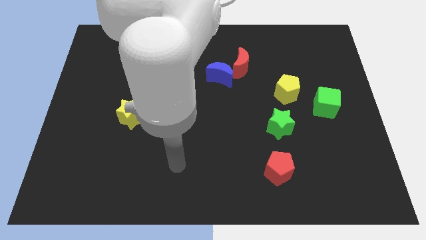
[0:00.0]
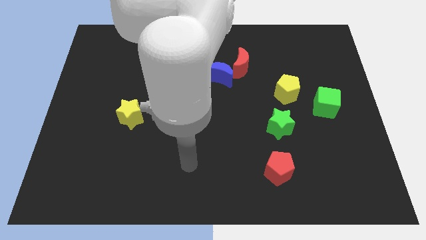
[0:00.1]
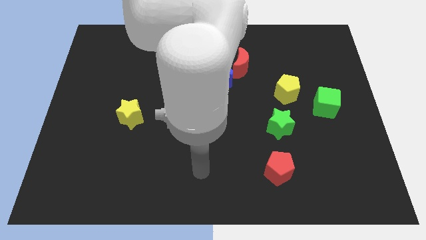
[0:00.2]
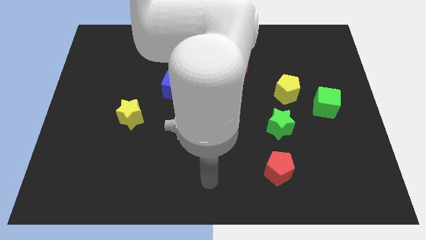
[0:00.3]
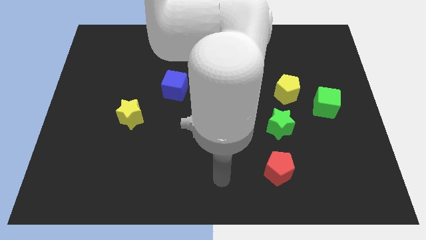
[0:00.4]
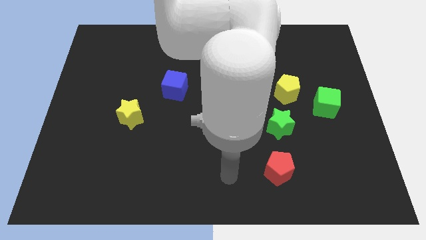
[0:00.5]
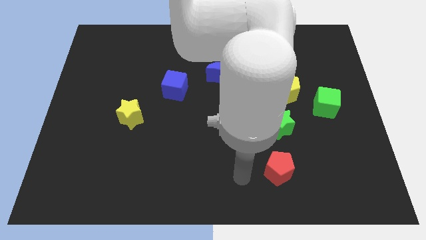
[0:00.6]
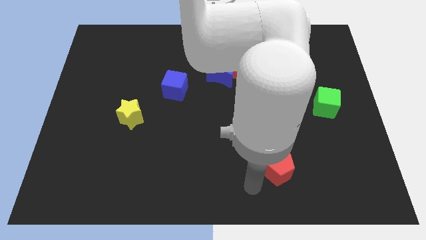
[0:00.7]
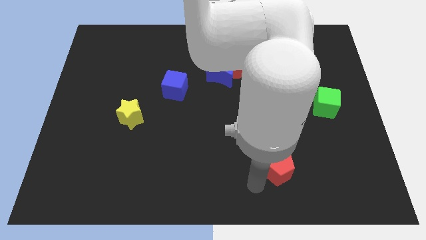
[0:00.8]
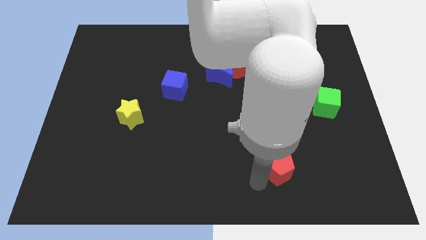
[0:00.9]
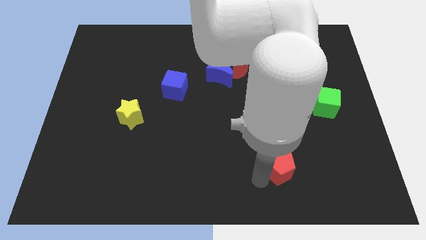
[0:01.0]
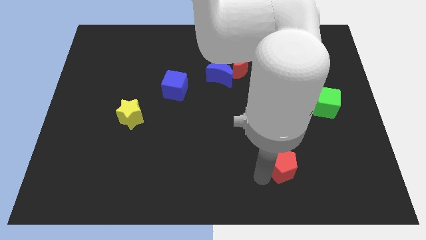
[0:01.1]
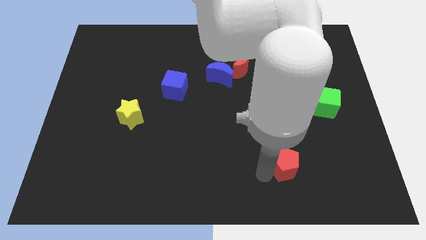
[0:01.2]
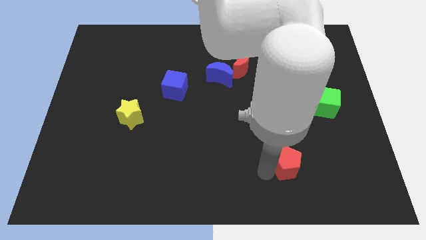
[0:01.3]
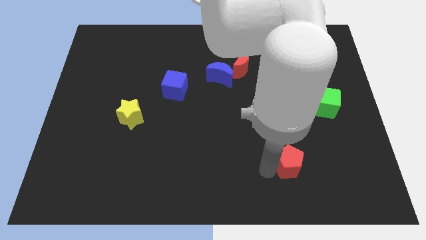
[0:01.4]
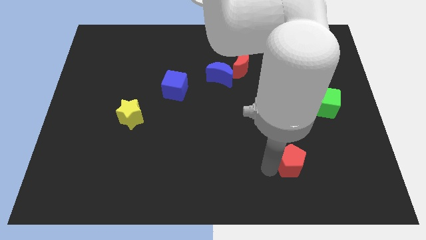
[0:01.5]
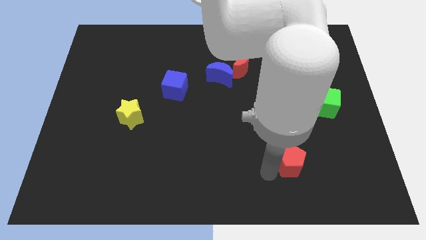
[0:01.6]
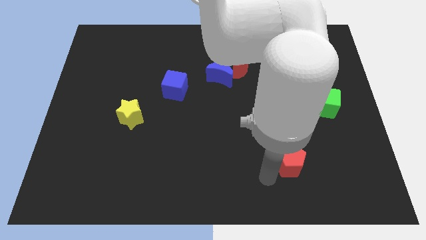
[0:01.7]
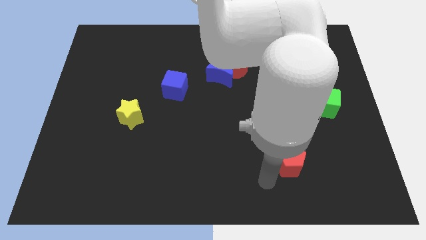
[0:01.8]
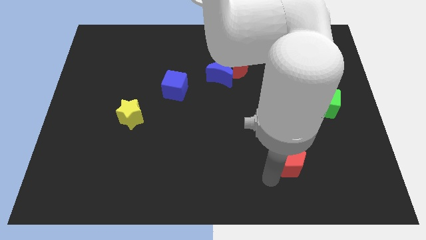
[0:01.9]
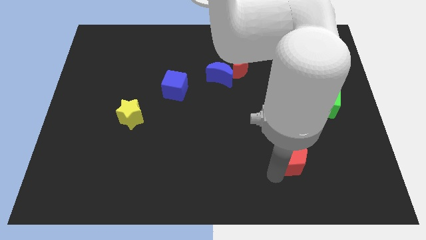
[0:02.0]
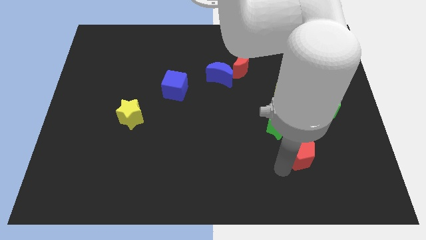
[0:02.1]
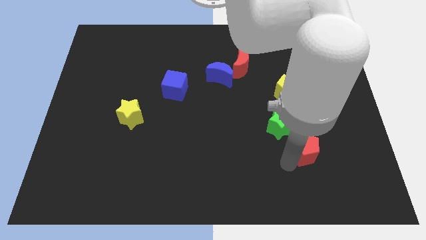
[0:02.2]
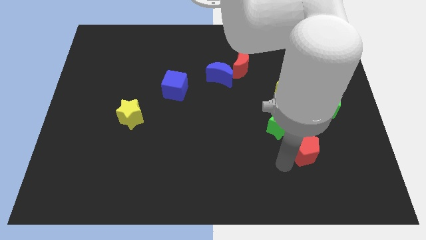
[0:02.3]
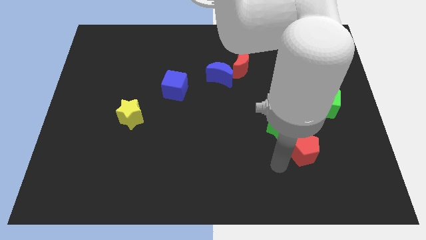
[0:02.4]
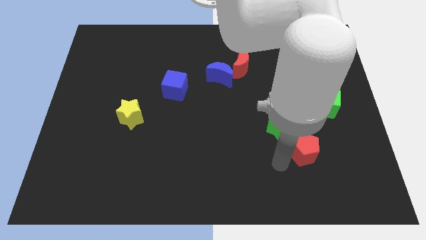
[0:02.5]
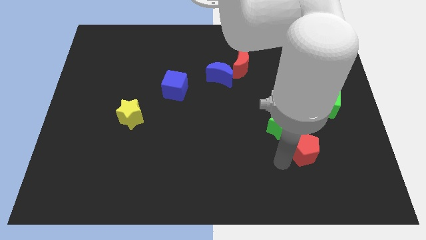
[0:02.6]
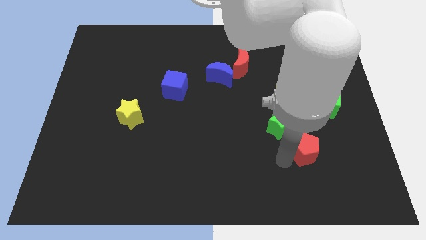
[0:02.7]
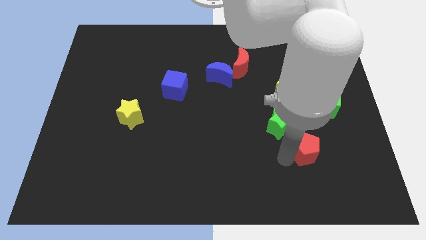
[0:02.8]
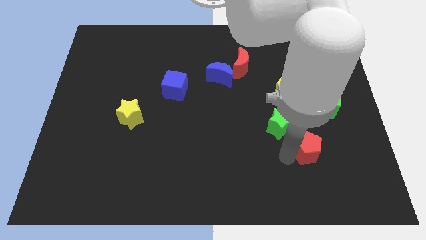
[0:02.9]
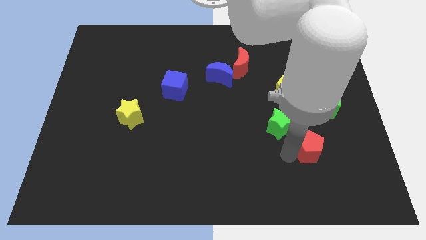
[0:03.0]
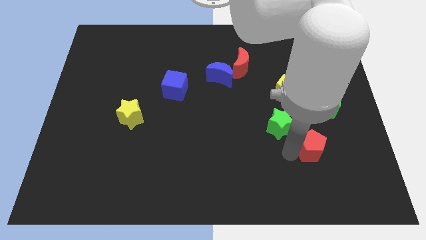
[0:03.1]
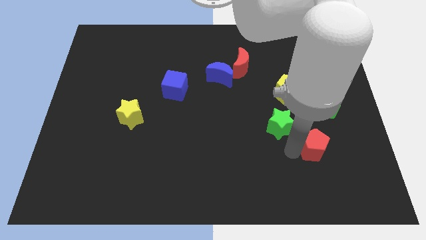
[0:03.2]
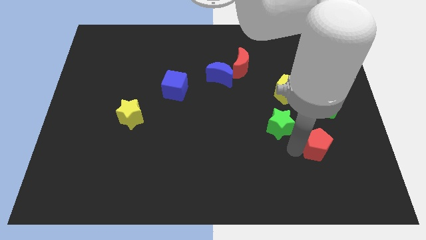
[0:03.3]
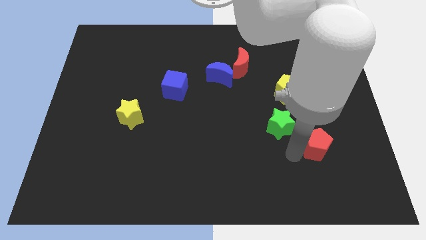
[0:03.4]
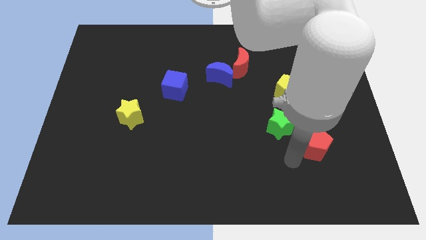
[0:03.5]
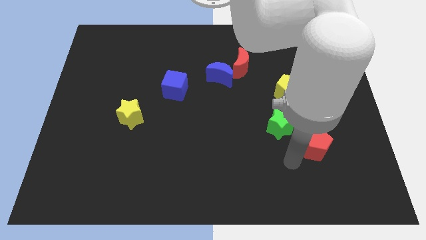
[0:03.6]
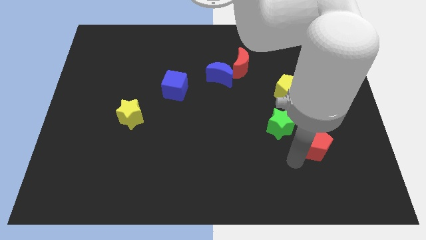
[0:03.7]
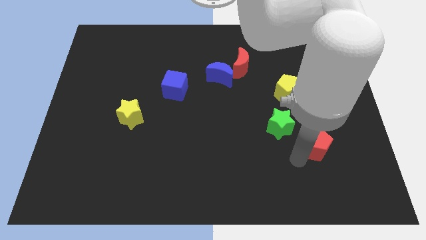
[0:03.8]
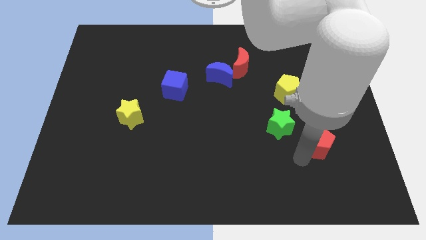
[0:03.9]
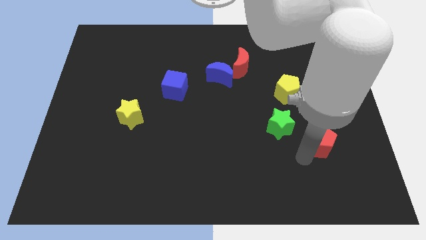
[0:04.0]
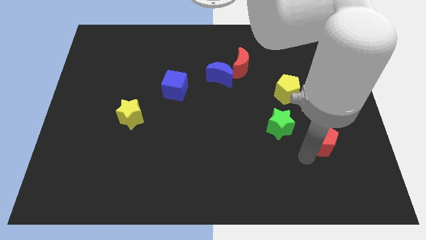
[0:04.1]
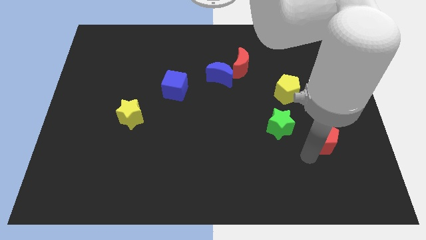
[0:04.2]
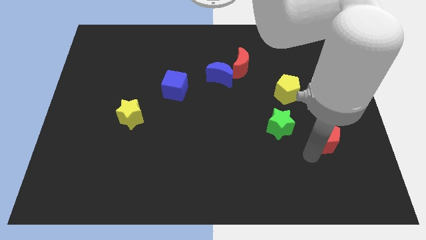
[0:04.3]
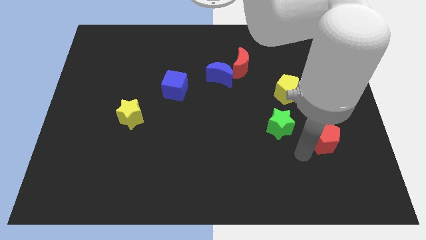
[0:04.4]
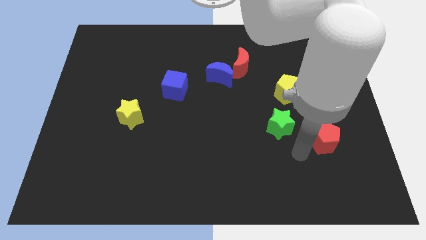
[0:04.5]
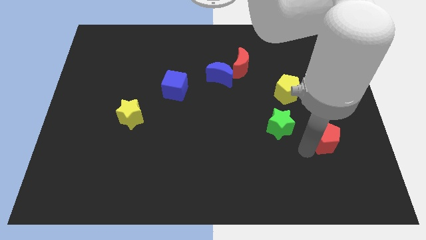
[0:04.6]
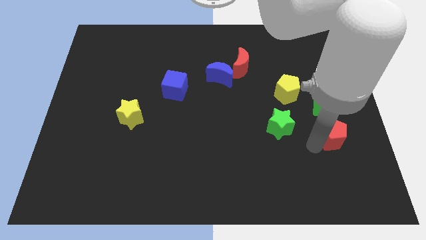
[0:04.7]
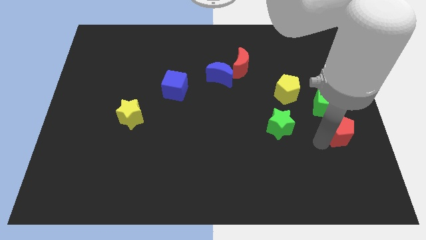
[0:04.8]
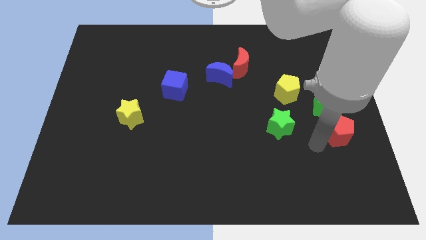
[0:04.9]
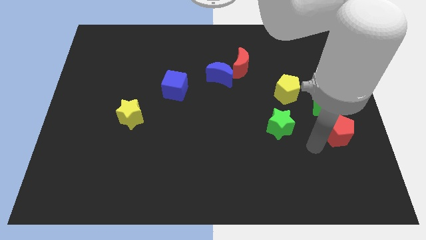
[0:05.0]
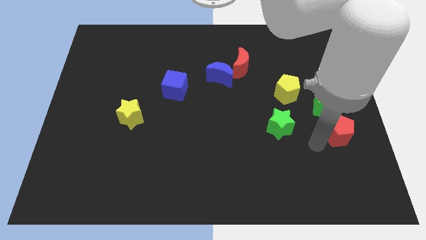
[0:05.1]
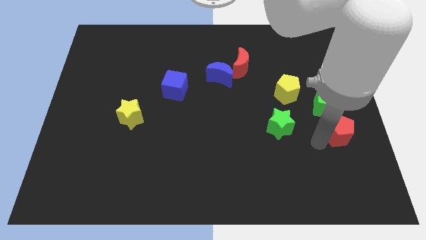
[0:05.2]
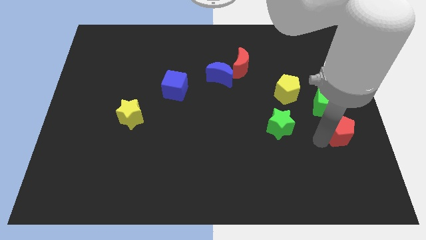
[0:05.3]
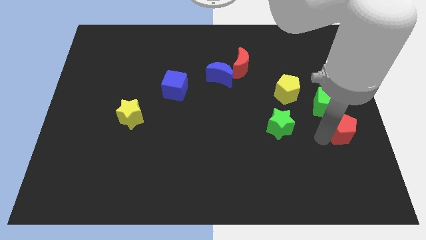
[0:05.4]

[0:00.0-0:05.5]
put the red pentagon to the center right

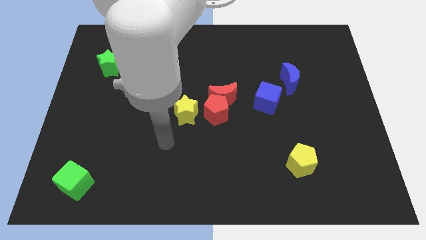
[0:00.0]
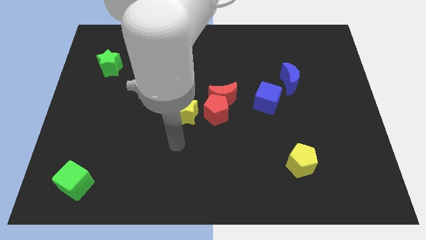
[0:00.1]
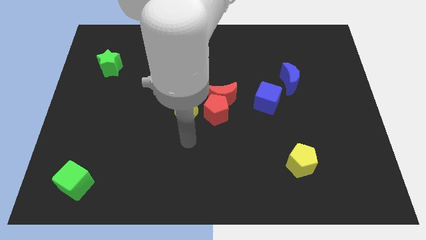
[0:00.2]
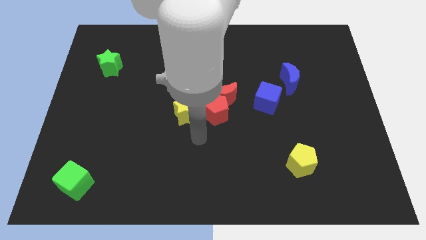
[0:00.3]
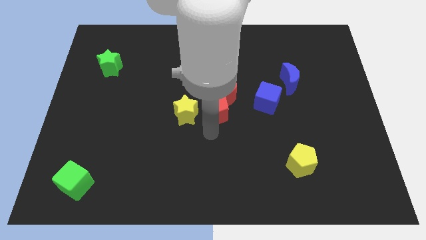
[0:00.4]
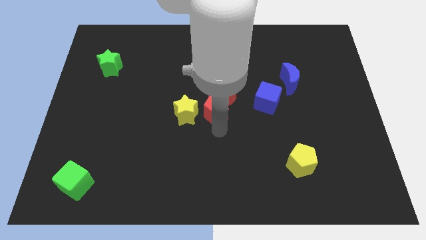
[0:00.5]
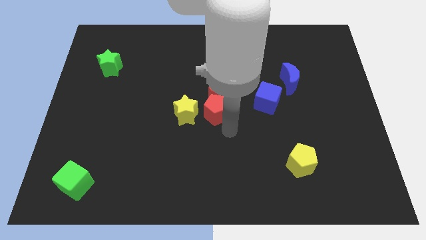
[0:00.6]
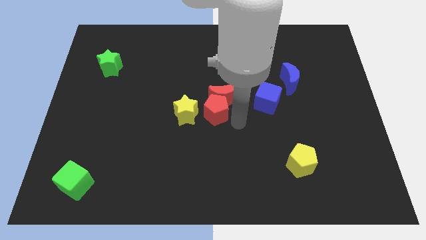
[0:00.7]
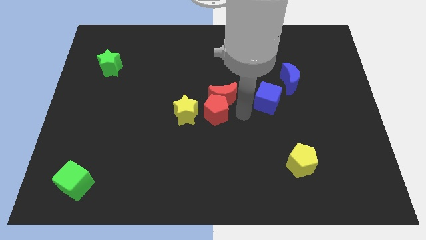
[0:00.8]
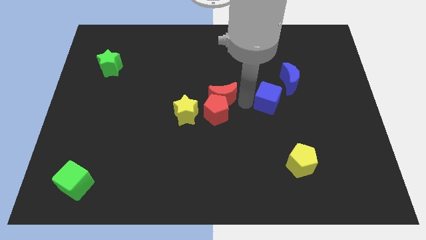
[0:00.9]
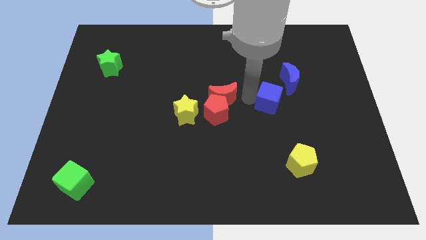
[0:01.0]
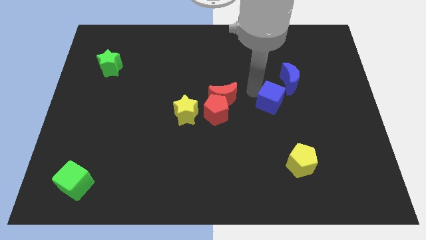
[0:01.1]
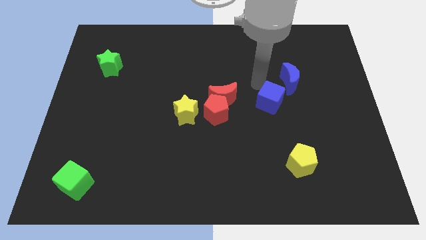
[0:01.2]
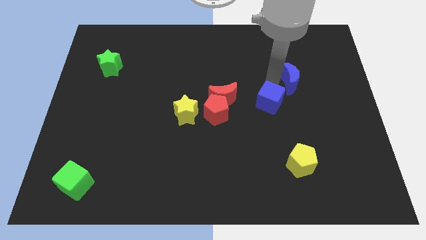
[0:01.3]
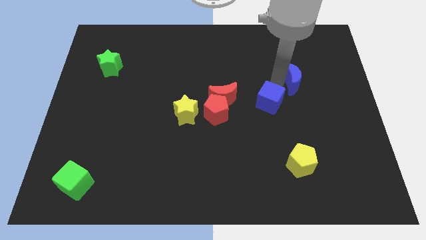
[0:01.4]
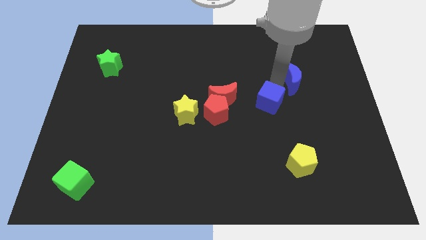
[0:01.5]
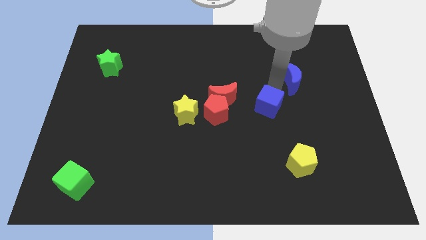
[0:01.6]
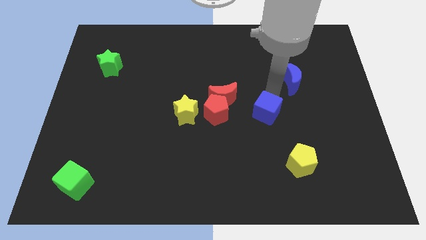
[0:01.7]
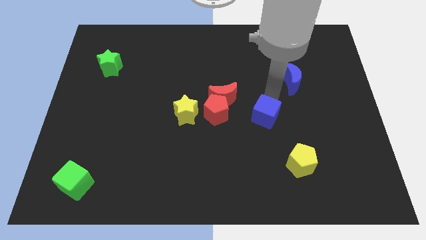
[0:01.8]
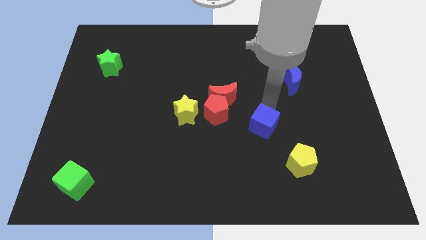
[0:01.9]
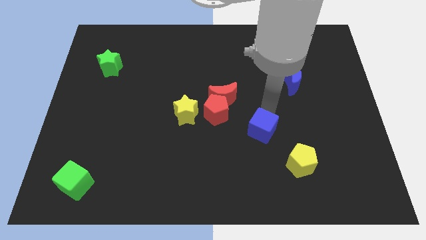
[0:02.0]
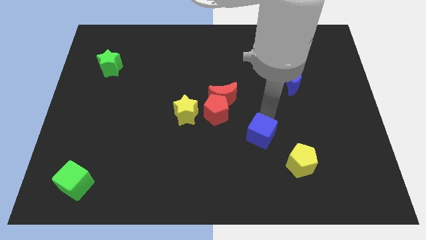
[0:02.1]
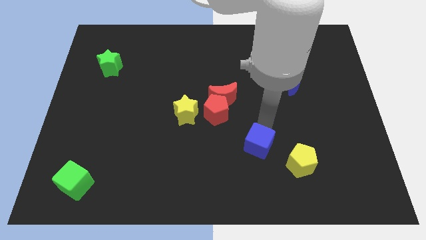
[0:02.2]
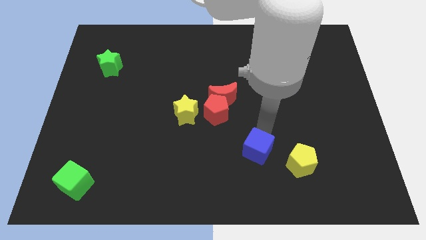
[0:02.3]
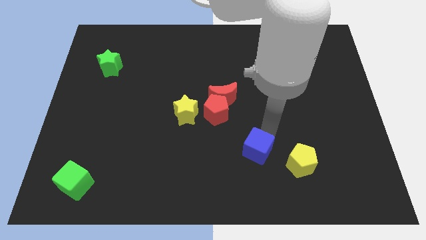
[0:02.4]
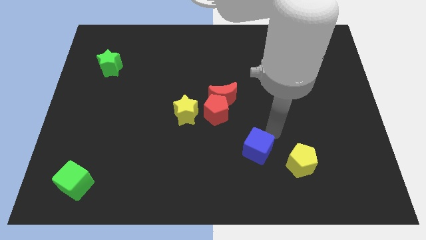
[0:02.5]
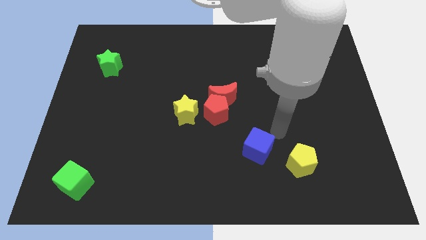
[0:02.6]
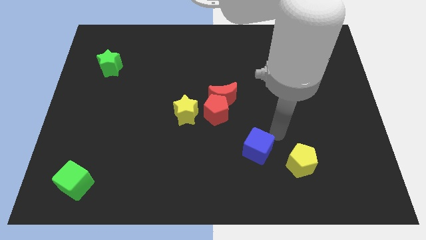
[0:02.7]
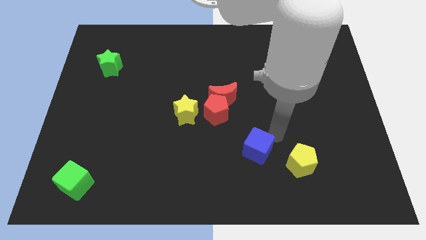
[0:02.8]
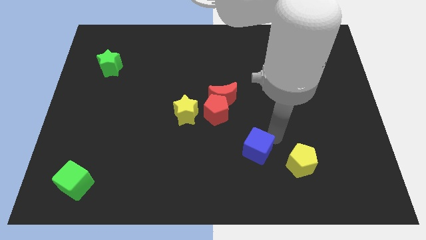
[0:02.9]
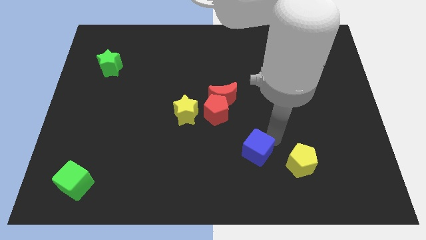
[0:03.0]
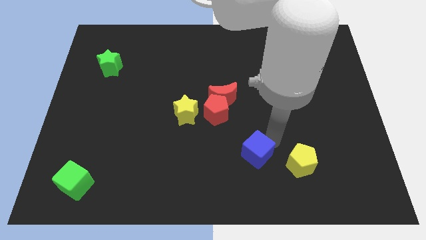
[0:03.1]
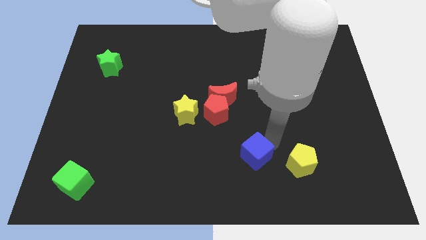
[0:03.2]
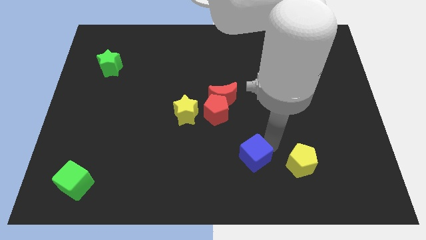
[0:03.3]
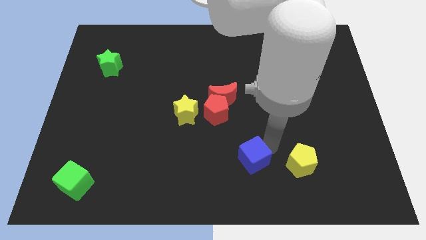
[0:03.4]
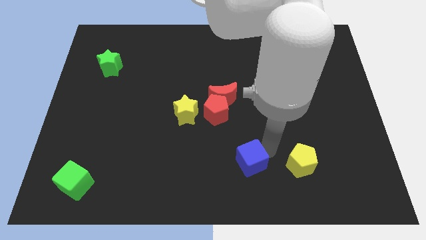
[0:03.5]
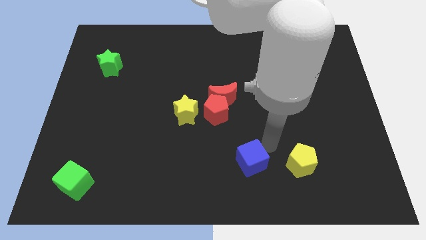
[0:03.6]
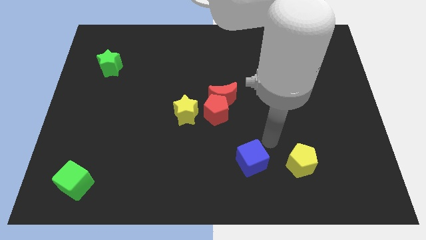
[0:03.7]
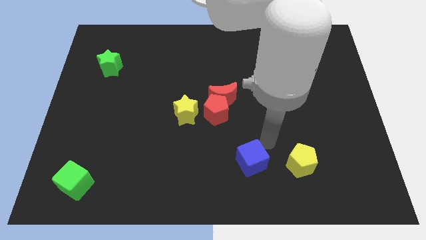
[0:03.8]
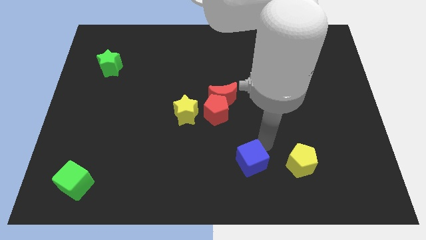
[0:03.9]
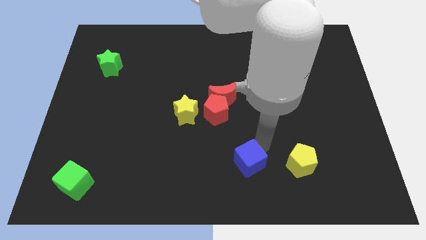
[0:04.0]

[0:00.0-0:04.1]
move the blue cube to the bottom side
